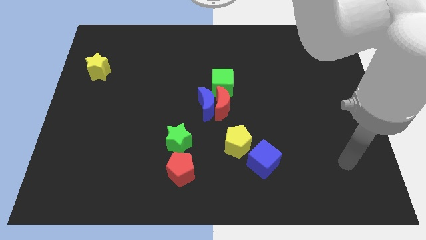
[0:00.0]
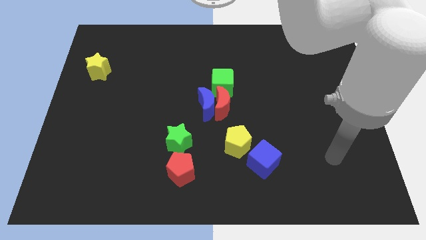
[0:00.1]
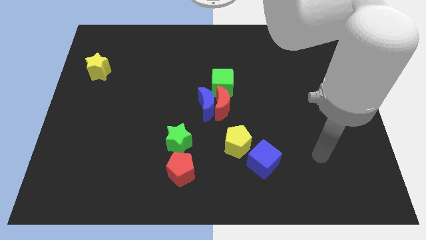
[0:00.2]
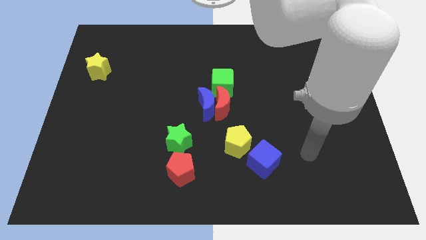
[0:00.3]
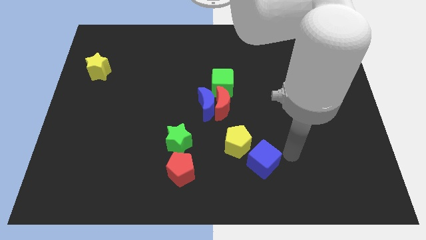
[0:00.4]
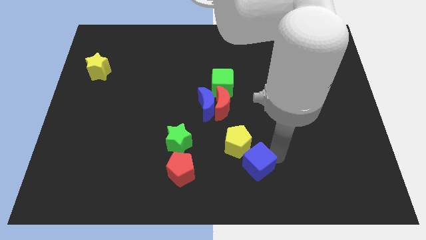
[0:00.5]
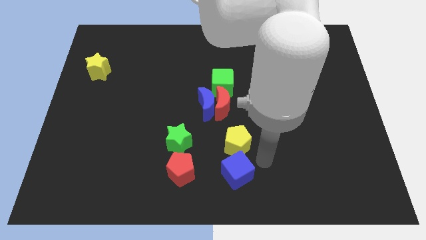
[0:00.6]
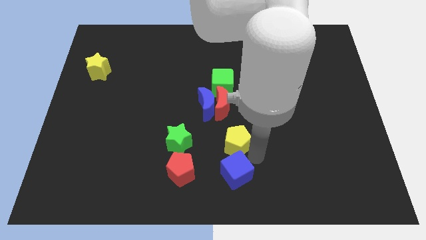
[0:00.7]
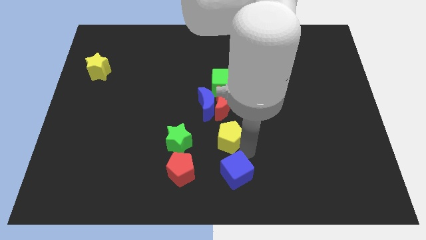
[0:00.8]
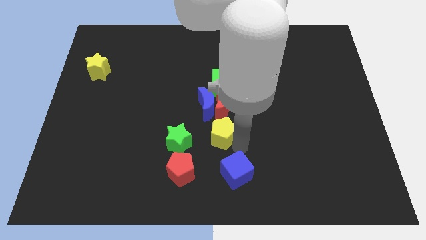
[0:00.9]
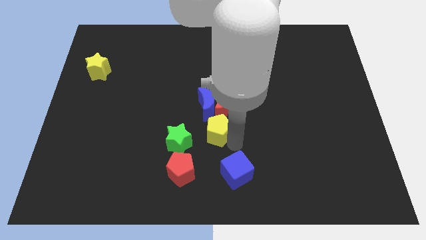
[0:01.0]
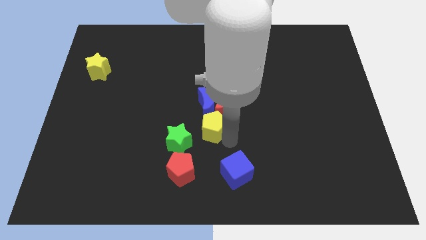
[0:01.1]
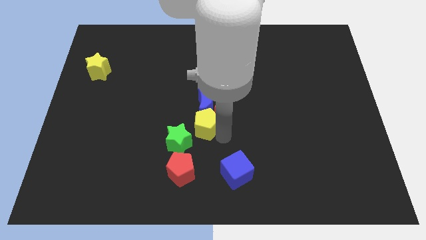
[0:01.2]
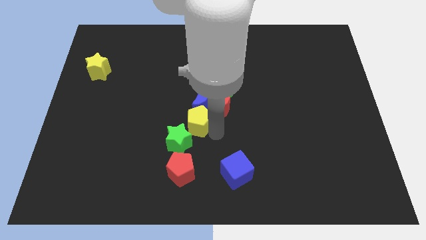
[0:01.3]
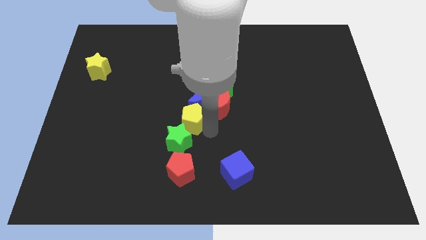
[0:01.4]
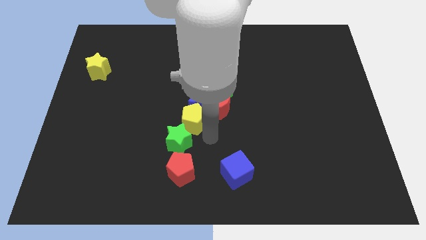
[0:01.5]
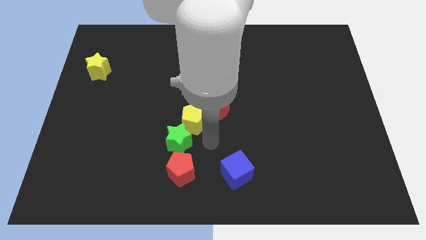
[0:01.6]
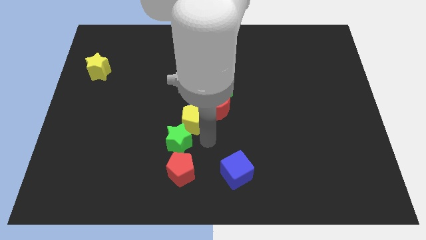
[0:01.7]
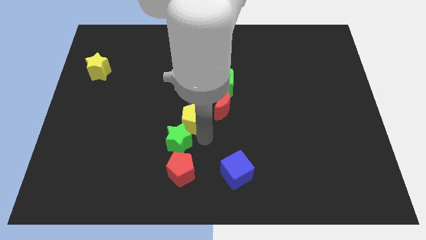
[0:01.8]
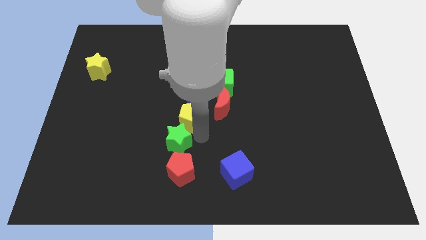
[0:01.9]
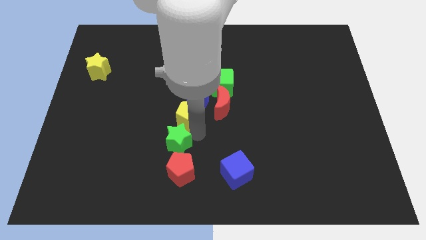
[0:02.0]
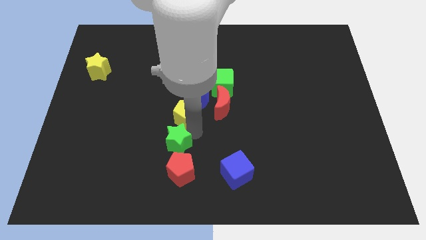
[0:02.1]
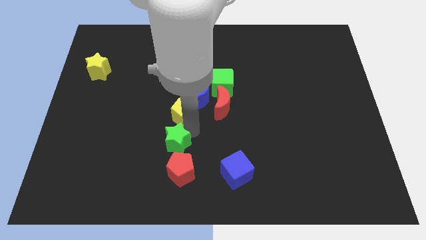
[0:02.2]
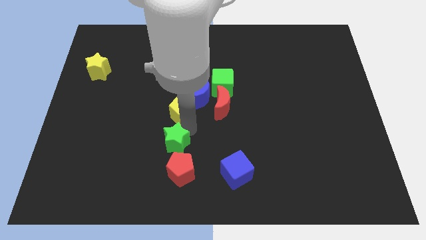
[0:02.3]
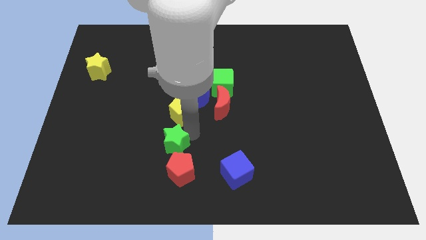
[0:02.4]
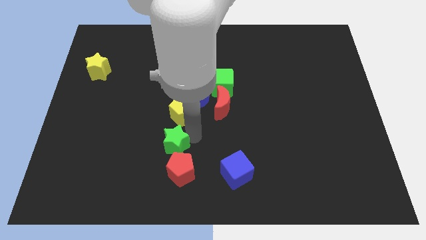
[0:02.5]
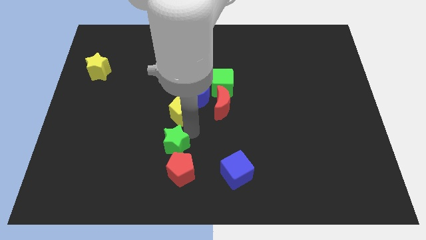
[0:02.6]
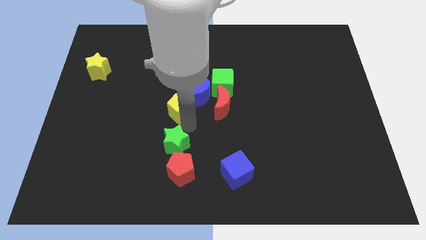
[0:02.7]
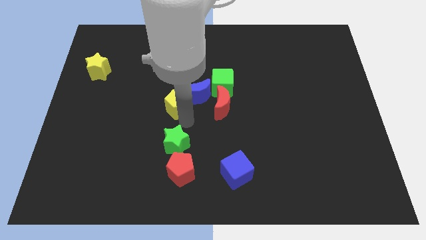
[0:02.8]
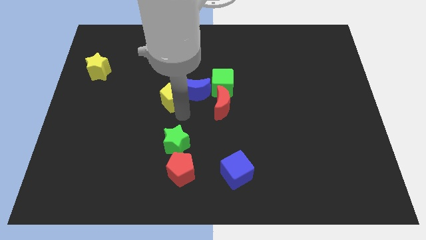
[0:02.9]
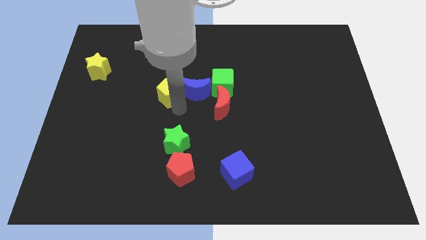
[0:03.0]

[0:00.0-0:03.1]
move the yellow pentagon up and then to the left

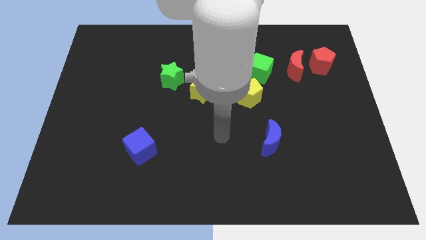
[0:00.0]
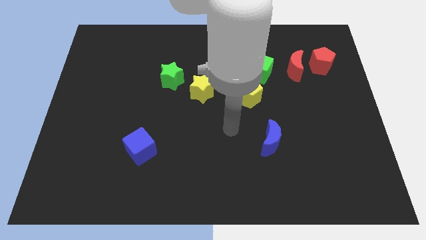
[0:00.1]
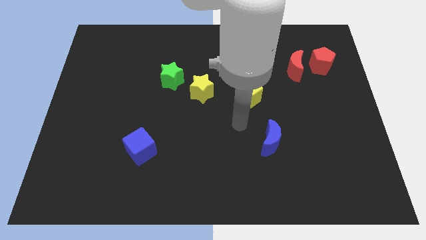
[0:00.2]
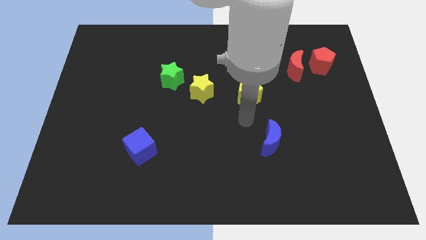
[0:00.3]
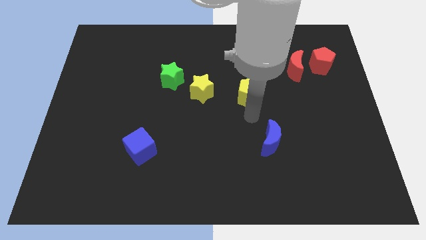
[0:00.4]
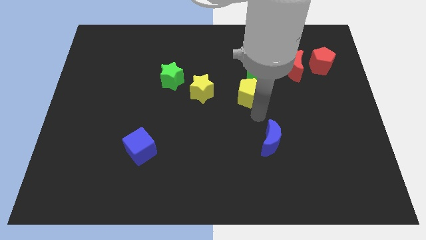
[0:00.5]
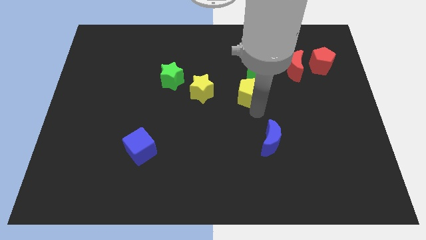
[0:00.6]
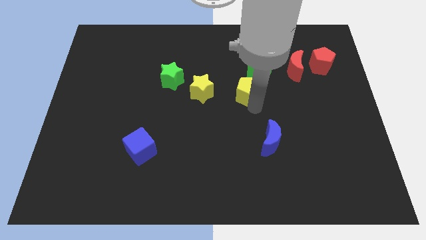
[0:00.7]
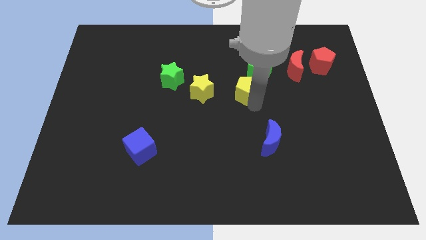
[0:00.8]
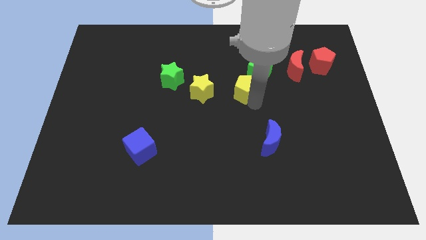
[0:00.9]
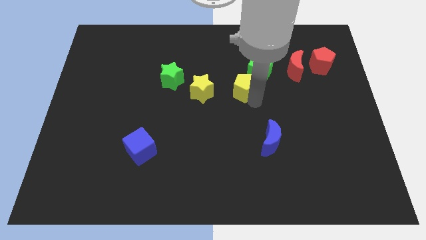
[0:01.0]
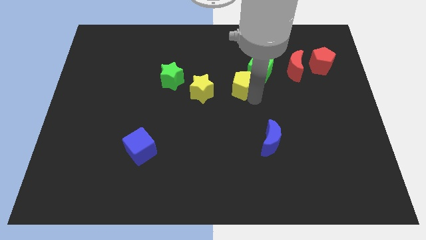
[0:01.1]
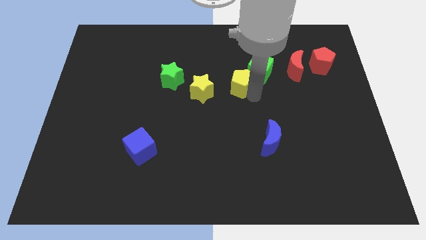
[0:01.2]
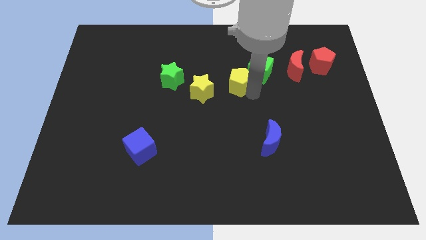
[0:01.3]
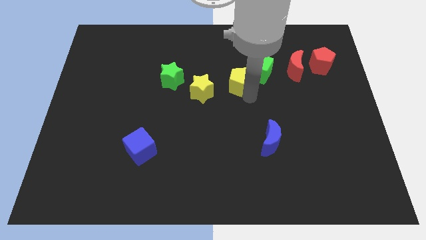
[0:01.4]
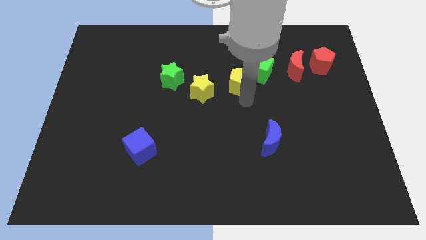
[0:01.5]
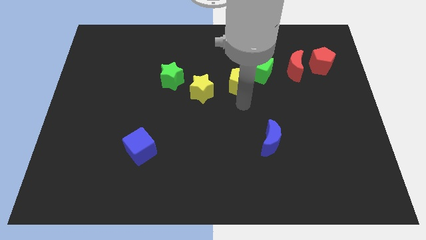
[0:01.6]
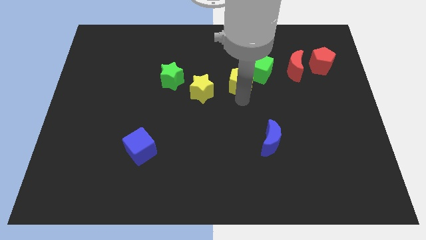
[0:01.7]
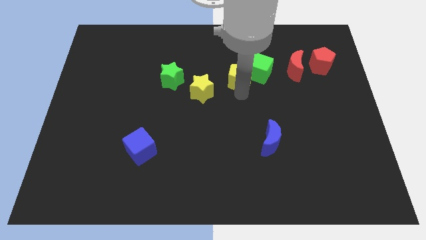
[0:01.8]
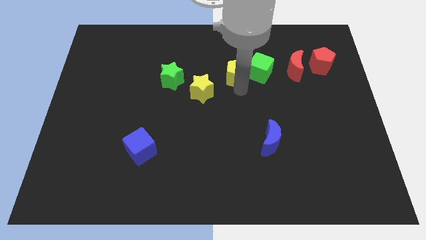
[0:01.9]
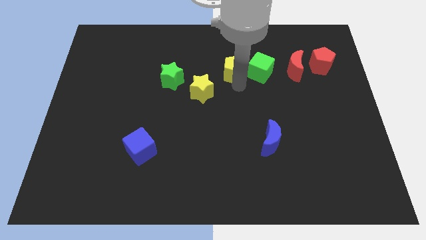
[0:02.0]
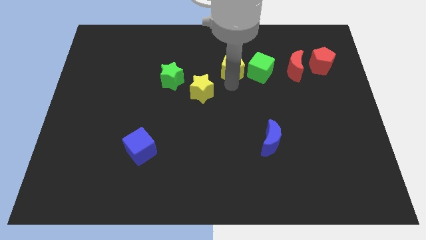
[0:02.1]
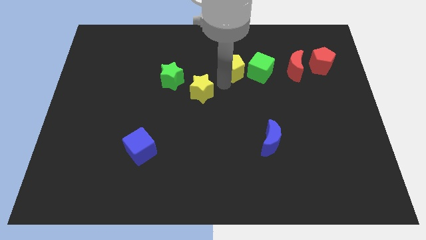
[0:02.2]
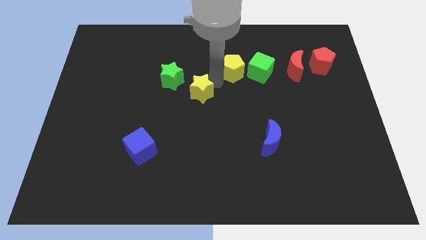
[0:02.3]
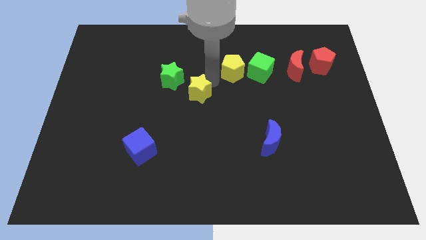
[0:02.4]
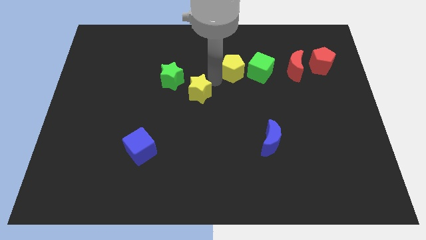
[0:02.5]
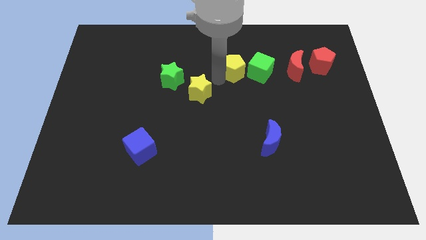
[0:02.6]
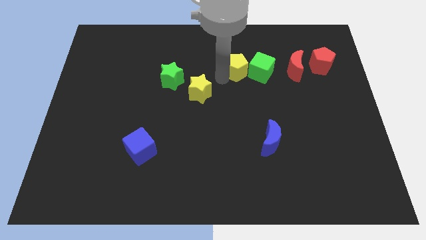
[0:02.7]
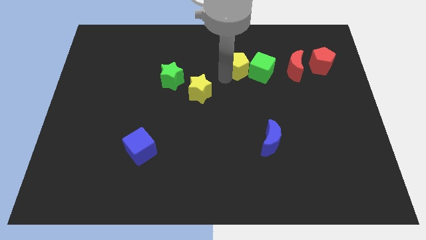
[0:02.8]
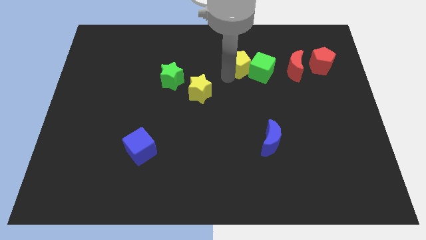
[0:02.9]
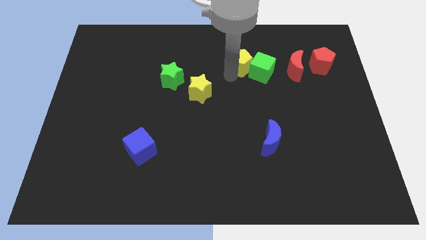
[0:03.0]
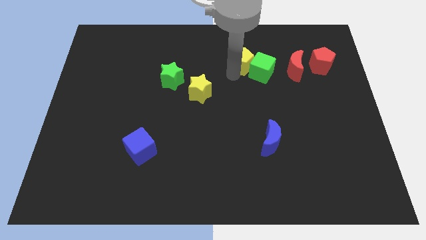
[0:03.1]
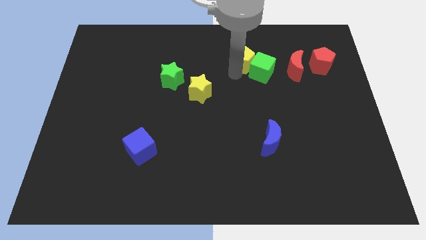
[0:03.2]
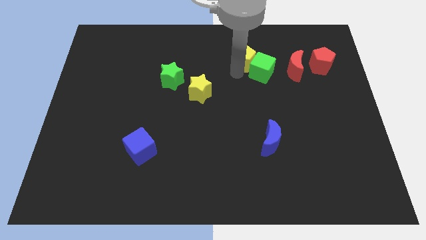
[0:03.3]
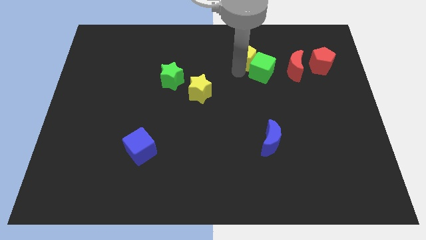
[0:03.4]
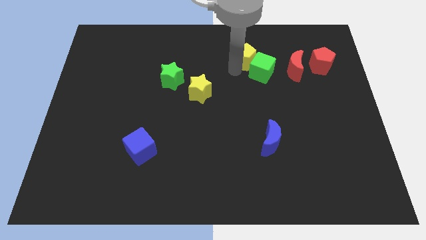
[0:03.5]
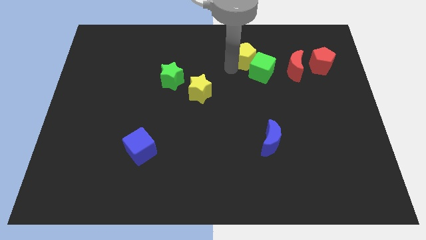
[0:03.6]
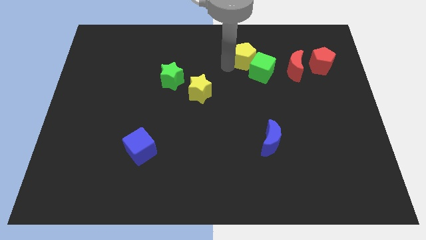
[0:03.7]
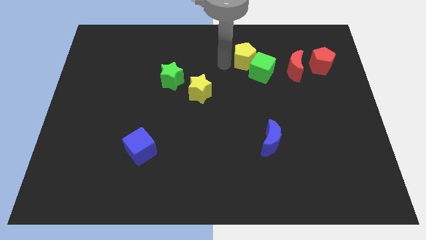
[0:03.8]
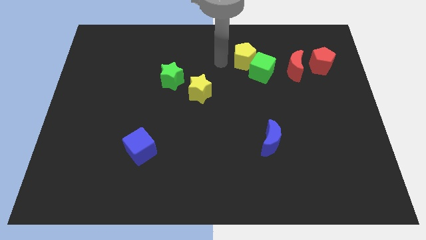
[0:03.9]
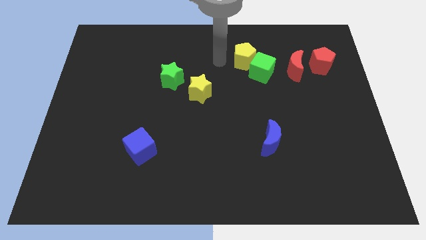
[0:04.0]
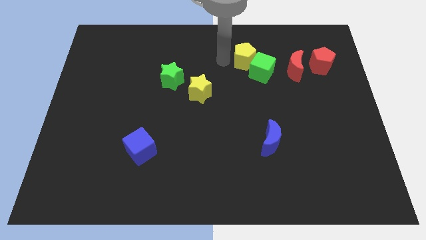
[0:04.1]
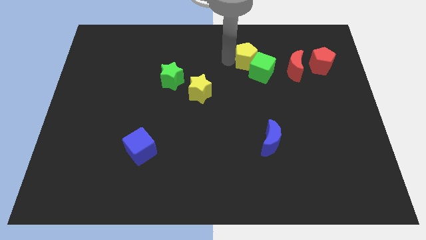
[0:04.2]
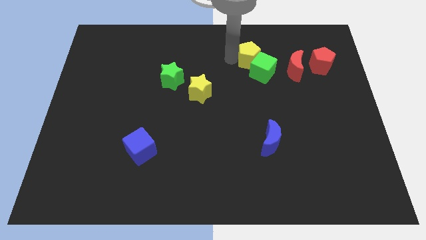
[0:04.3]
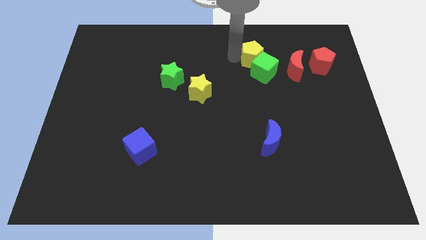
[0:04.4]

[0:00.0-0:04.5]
slightly move the yellow pentagon diagonally up and right

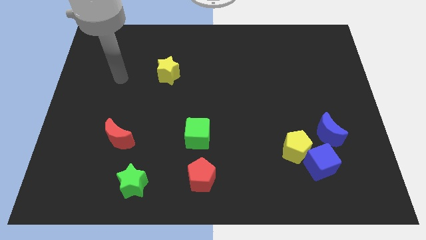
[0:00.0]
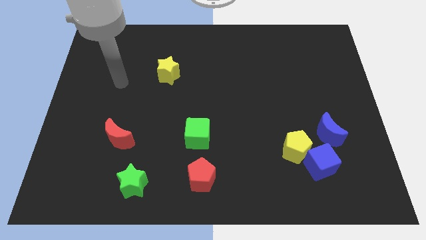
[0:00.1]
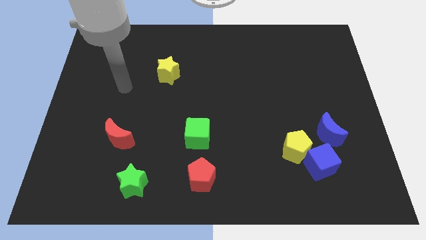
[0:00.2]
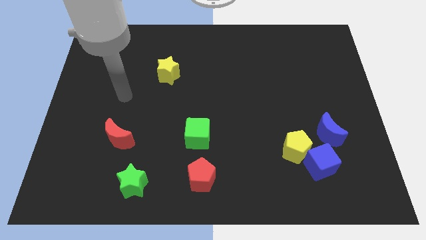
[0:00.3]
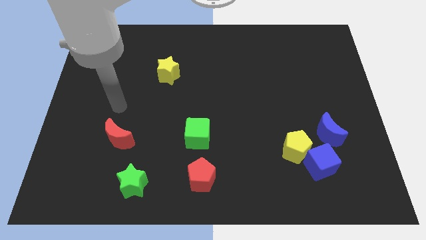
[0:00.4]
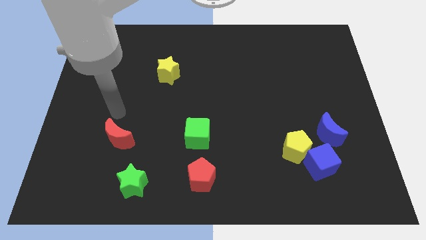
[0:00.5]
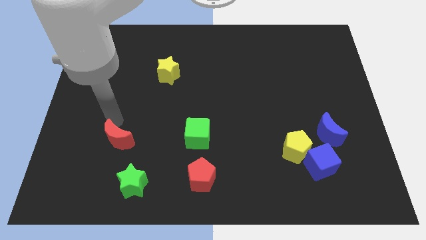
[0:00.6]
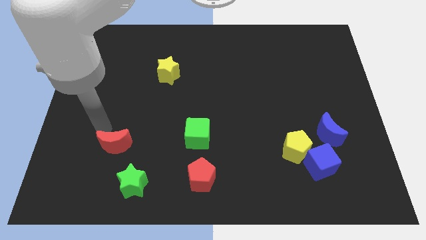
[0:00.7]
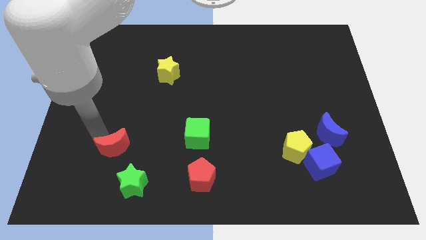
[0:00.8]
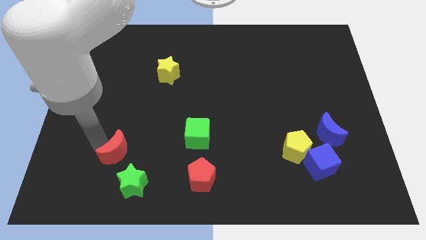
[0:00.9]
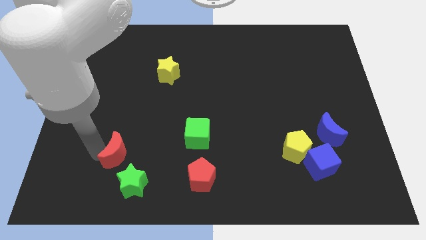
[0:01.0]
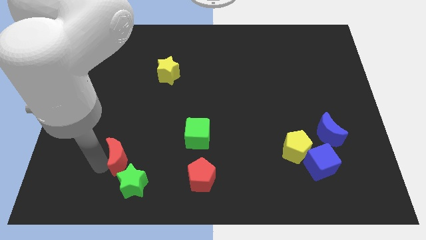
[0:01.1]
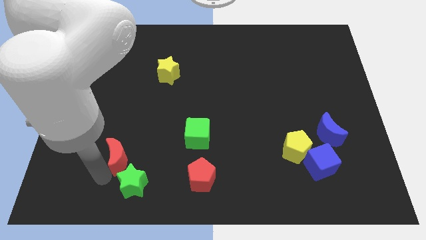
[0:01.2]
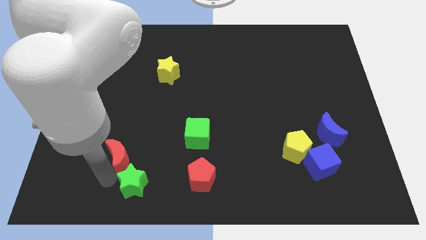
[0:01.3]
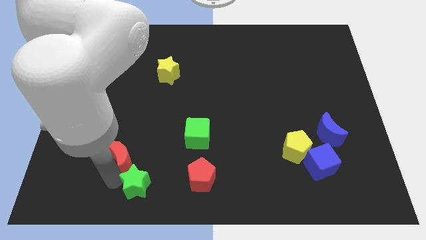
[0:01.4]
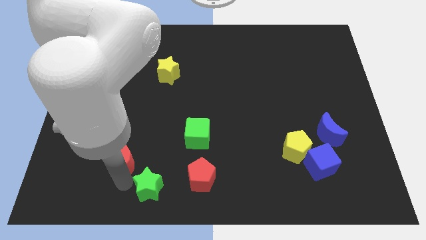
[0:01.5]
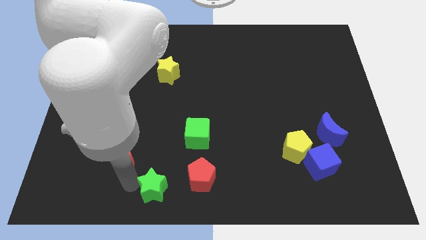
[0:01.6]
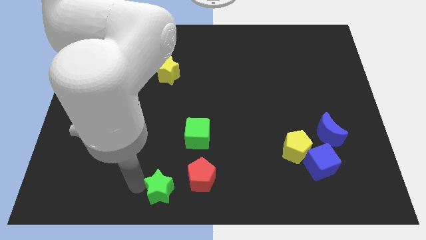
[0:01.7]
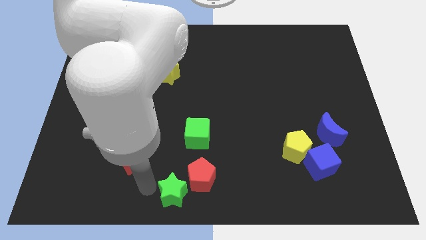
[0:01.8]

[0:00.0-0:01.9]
move the green star a little right
